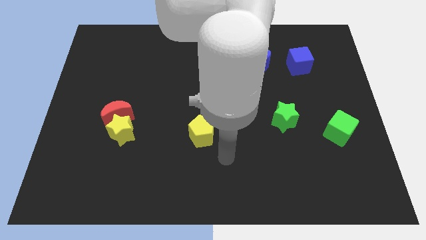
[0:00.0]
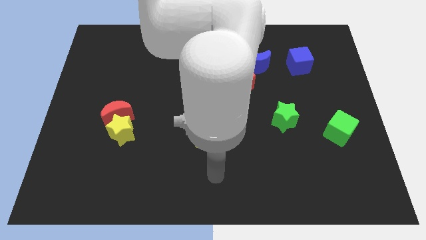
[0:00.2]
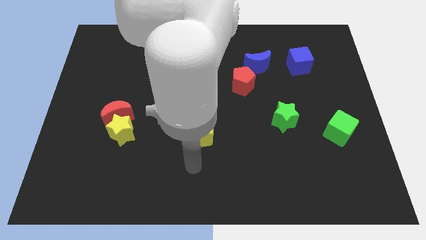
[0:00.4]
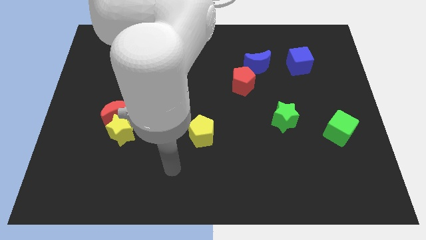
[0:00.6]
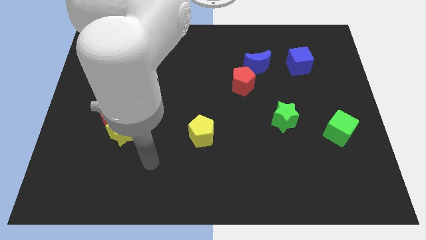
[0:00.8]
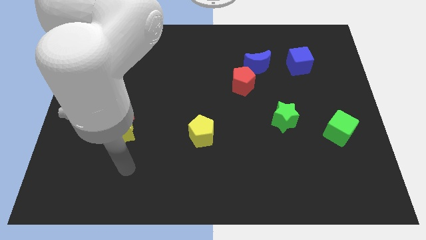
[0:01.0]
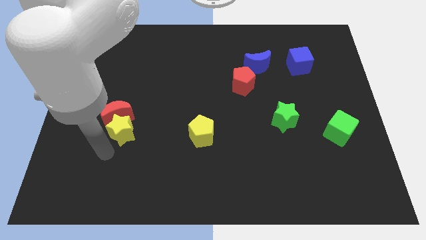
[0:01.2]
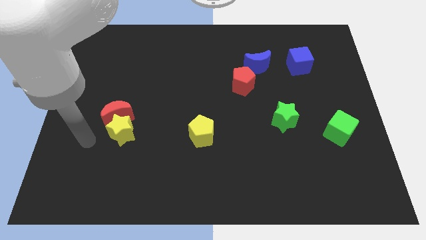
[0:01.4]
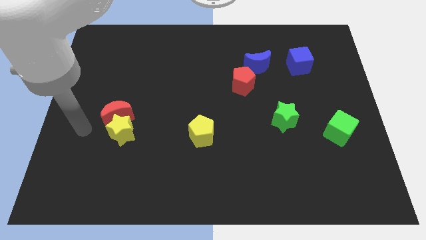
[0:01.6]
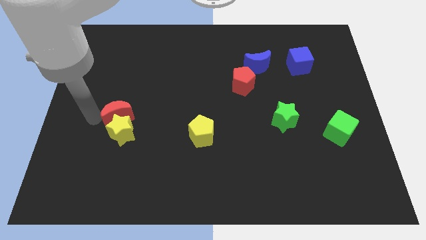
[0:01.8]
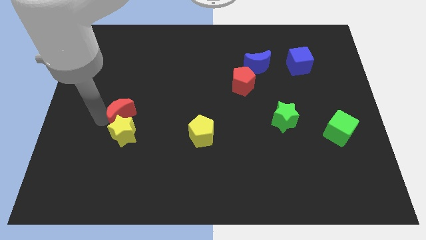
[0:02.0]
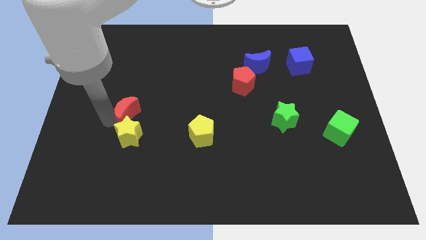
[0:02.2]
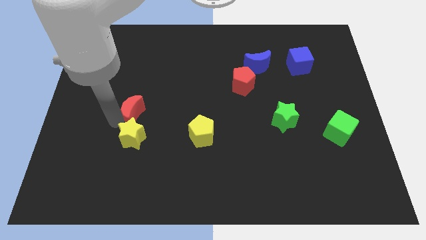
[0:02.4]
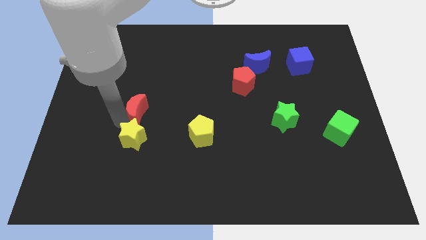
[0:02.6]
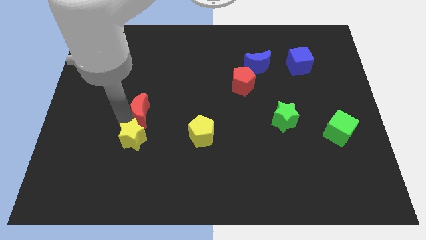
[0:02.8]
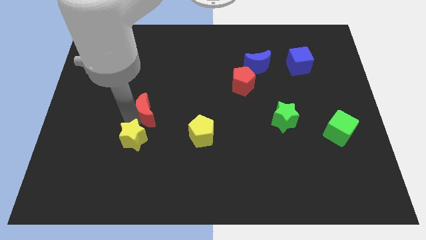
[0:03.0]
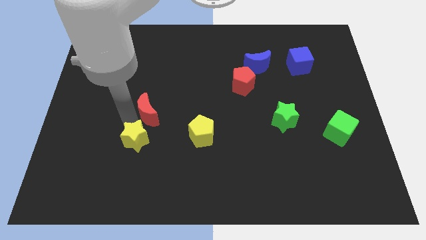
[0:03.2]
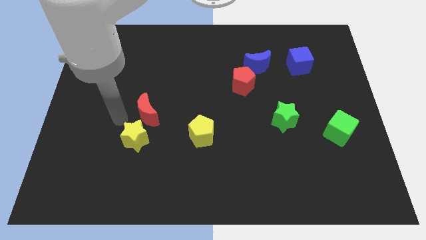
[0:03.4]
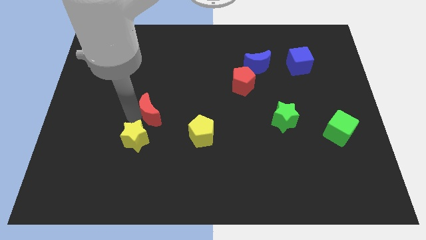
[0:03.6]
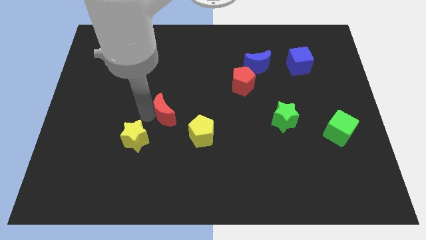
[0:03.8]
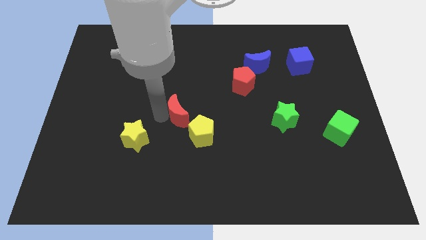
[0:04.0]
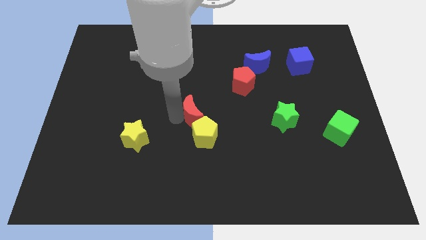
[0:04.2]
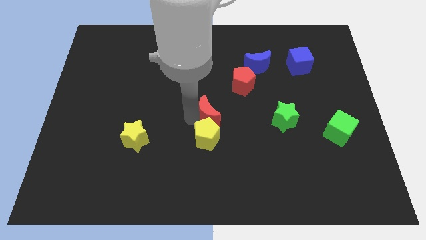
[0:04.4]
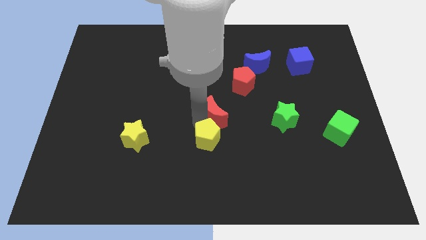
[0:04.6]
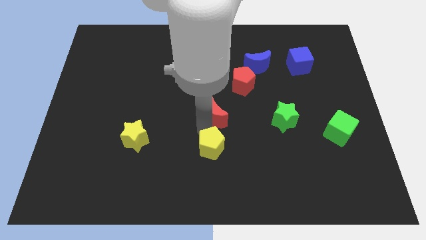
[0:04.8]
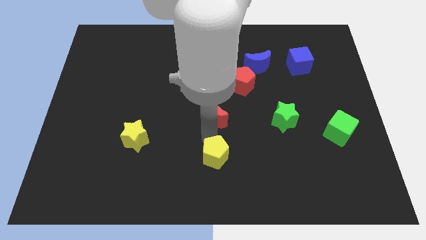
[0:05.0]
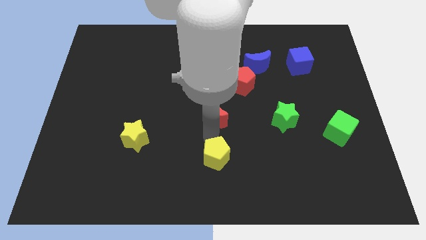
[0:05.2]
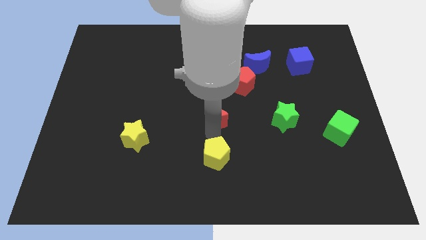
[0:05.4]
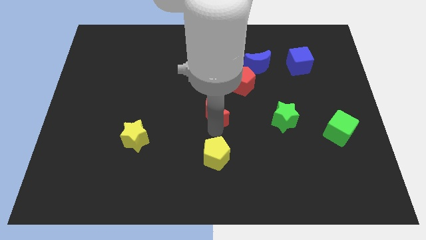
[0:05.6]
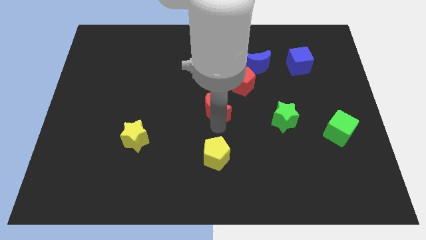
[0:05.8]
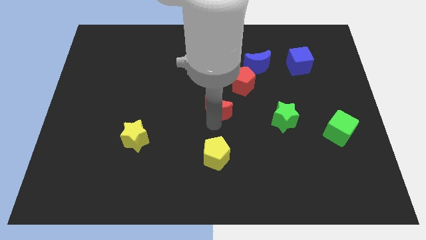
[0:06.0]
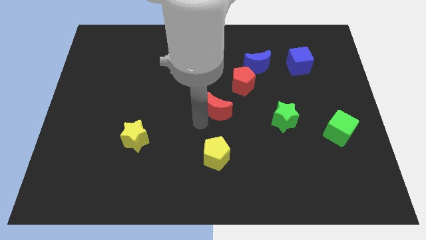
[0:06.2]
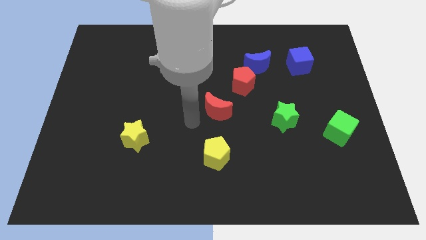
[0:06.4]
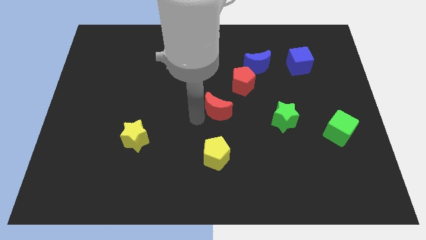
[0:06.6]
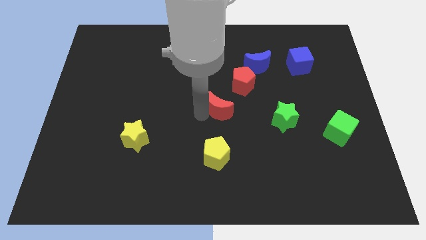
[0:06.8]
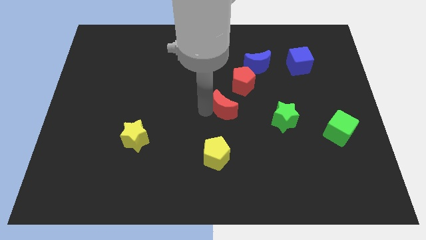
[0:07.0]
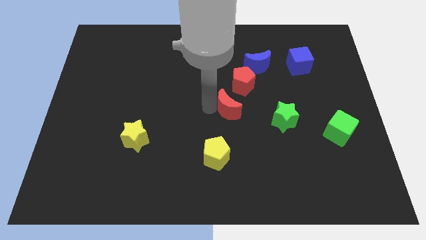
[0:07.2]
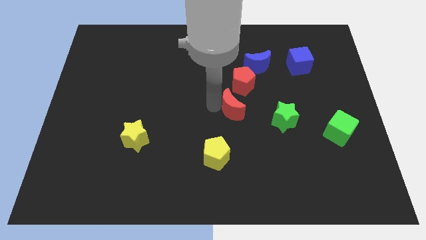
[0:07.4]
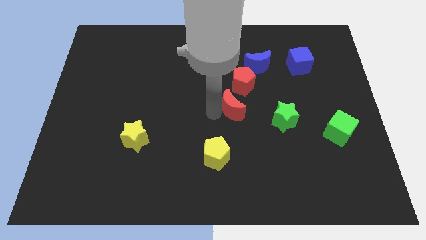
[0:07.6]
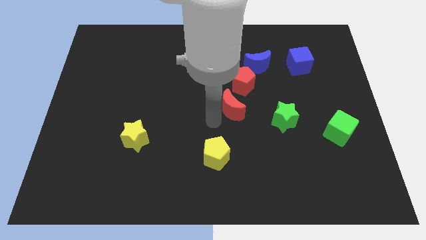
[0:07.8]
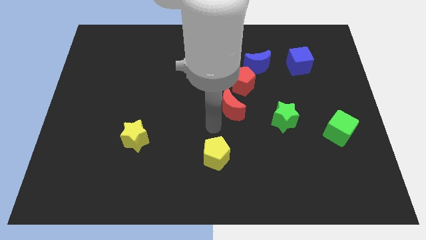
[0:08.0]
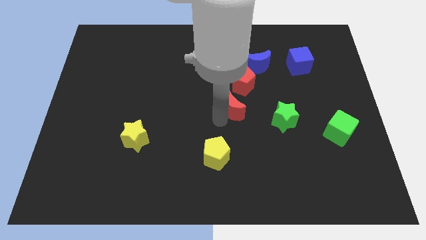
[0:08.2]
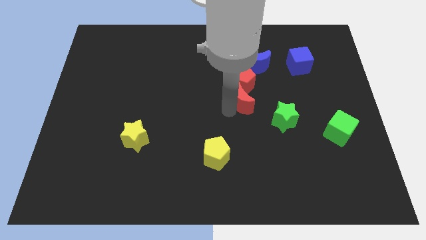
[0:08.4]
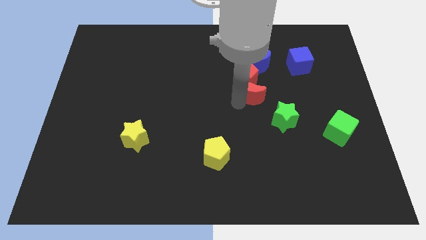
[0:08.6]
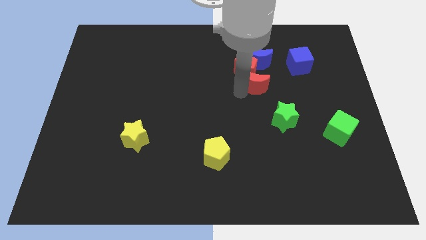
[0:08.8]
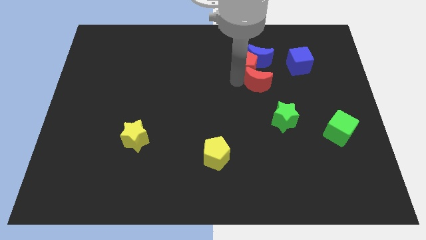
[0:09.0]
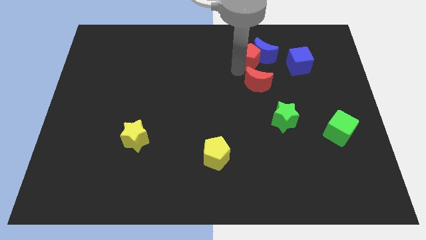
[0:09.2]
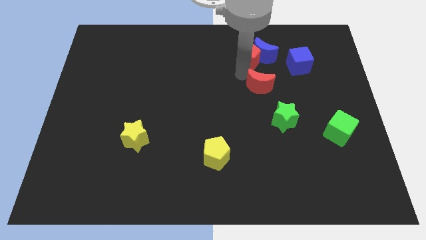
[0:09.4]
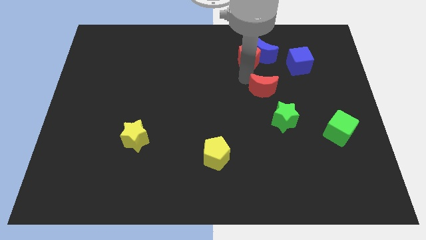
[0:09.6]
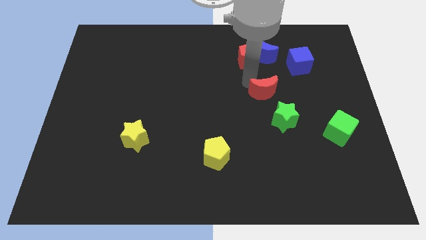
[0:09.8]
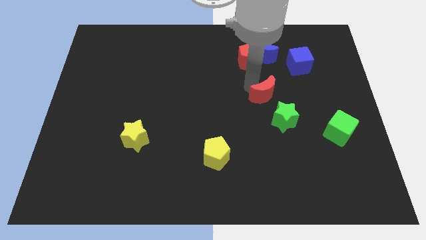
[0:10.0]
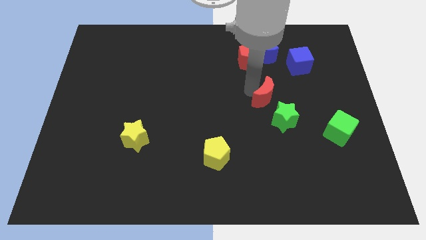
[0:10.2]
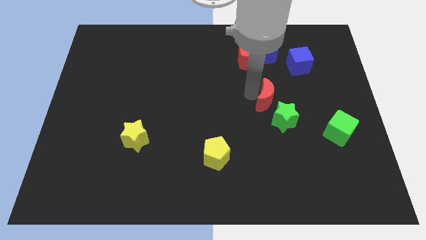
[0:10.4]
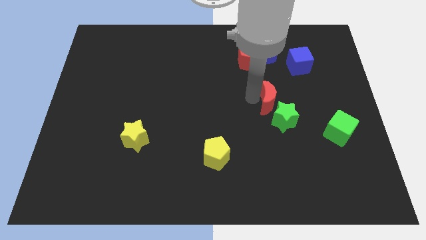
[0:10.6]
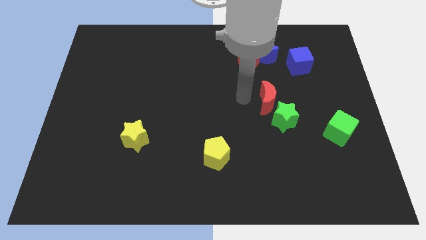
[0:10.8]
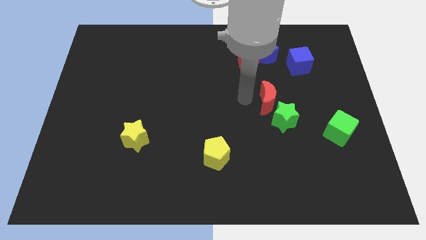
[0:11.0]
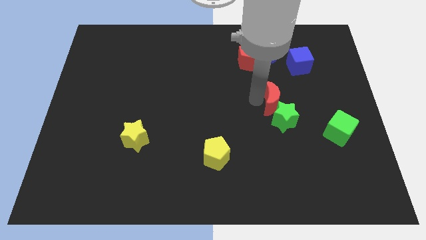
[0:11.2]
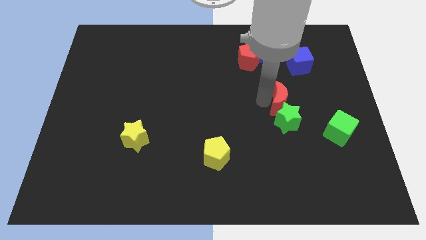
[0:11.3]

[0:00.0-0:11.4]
put the red moon diagonally up and to the right of the green star

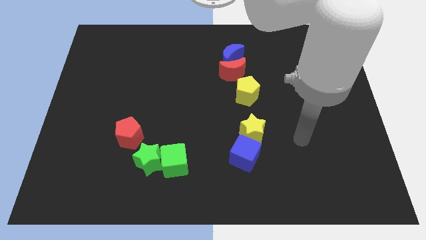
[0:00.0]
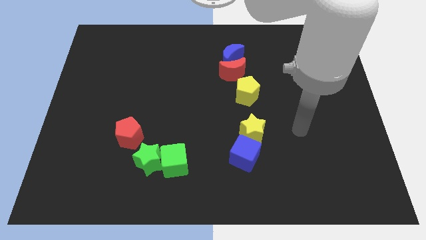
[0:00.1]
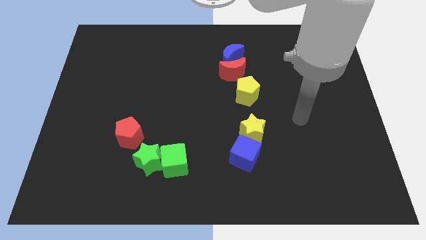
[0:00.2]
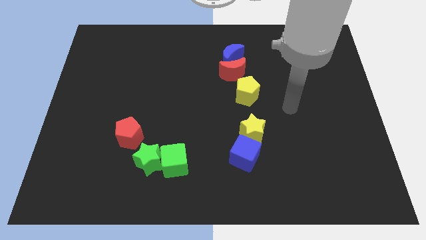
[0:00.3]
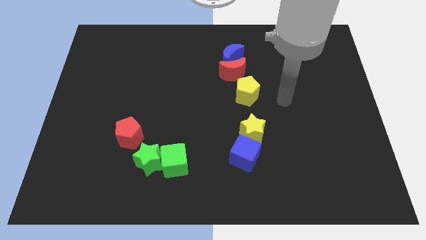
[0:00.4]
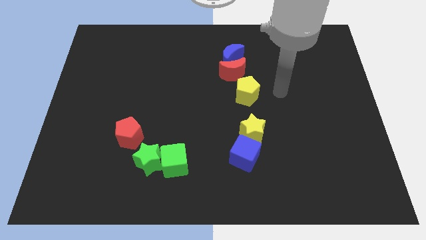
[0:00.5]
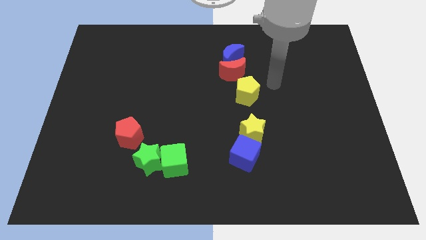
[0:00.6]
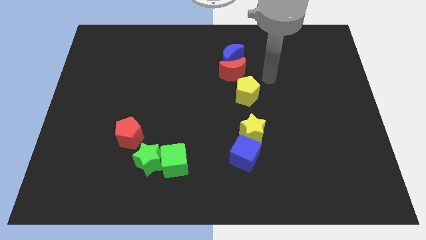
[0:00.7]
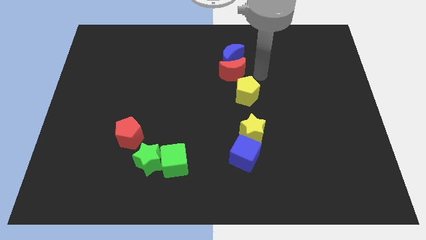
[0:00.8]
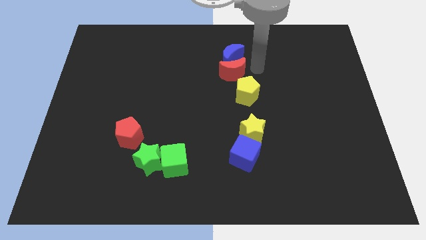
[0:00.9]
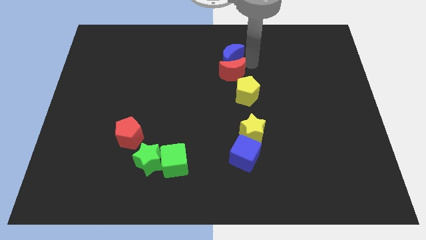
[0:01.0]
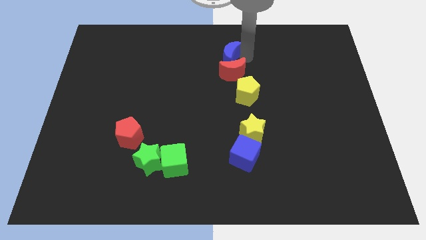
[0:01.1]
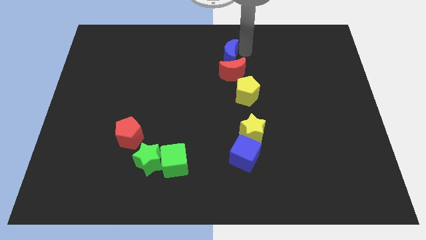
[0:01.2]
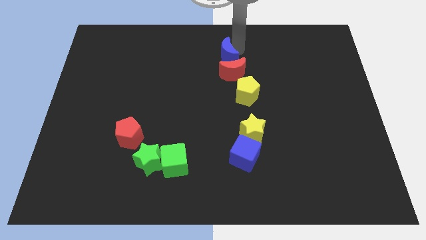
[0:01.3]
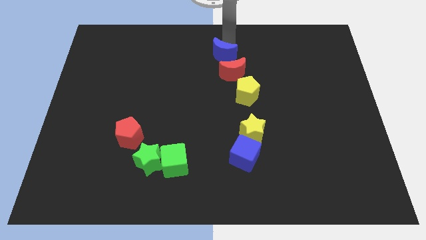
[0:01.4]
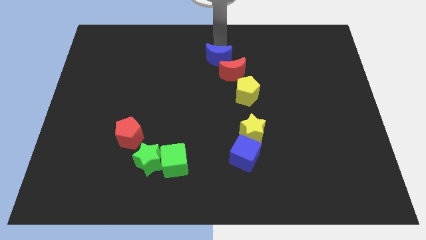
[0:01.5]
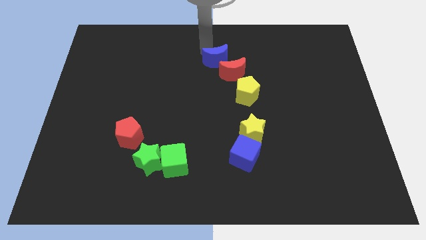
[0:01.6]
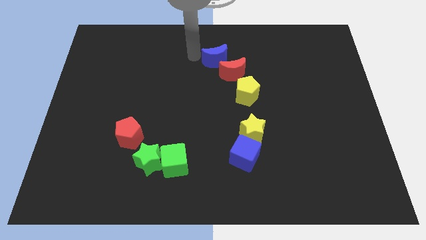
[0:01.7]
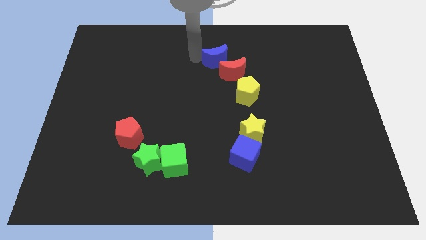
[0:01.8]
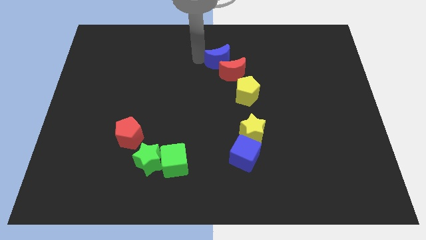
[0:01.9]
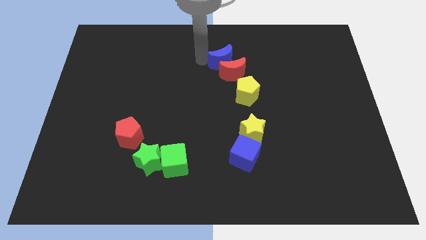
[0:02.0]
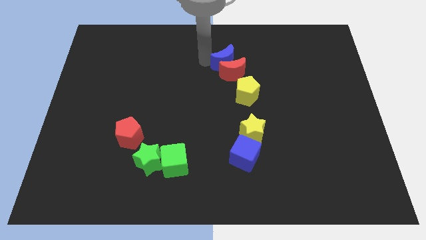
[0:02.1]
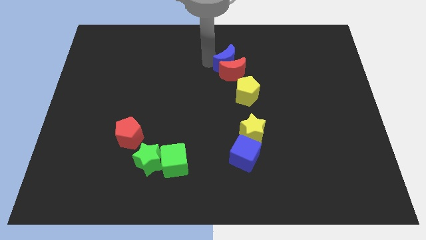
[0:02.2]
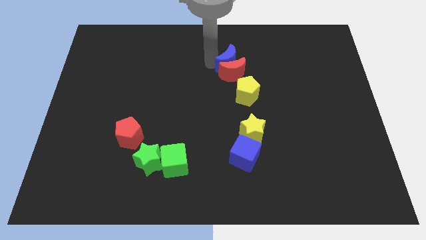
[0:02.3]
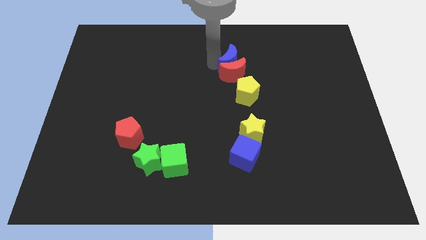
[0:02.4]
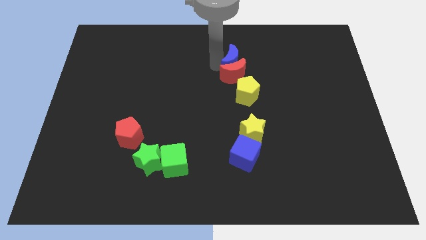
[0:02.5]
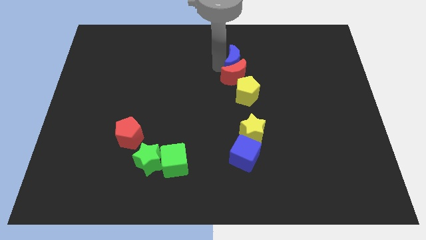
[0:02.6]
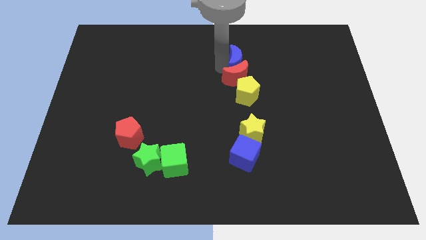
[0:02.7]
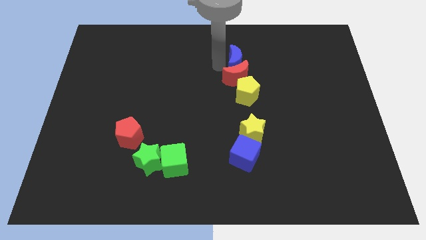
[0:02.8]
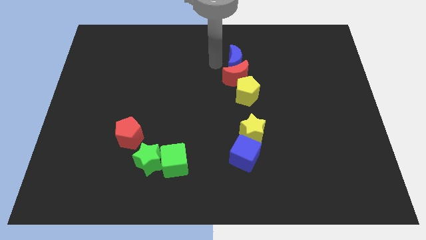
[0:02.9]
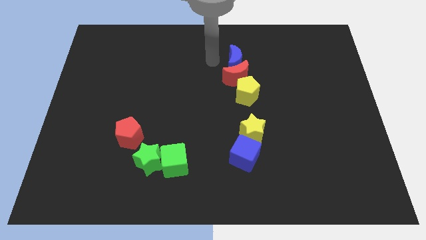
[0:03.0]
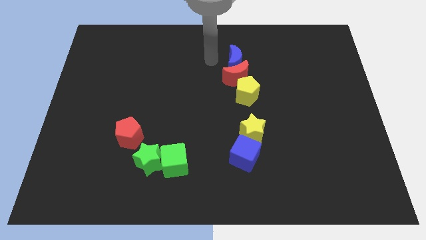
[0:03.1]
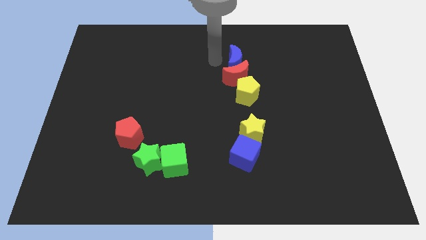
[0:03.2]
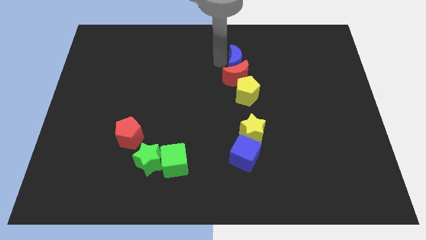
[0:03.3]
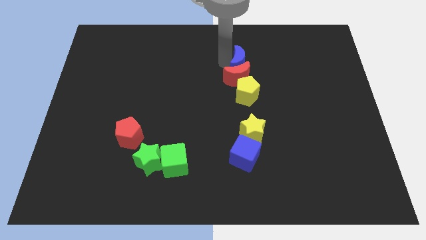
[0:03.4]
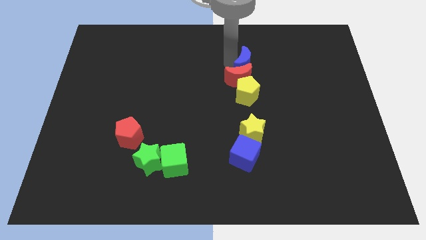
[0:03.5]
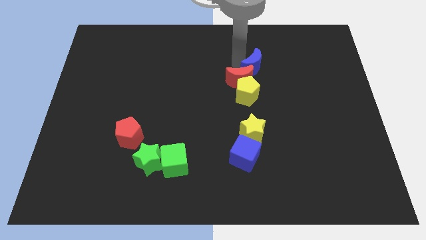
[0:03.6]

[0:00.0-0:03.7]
move the blue moon to the right of the red moon
